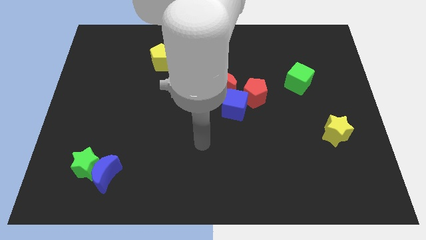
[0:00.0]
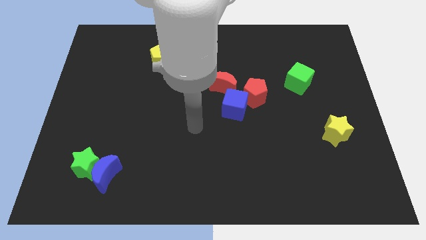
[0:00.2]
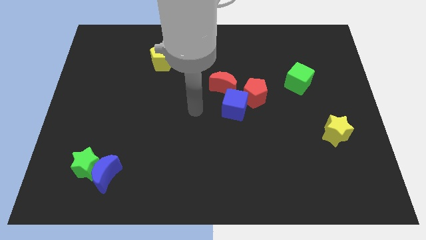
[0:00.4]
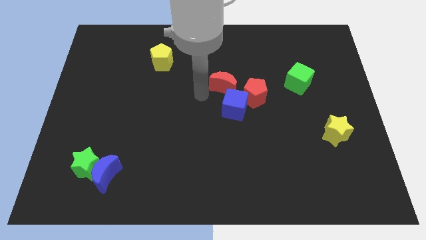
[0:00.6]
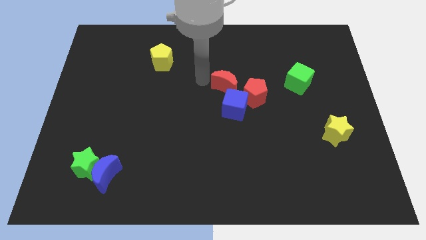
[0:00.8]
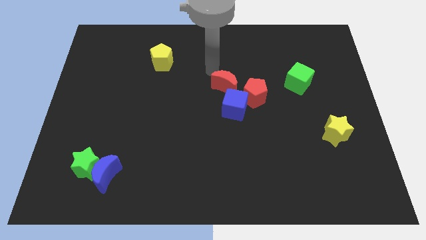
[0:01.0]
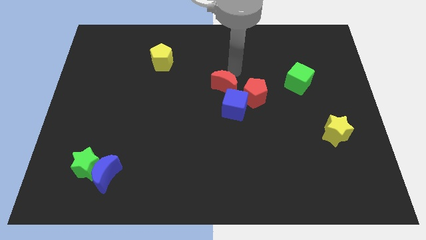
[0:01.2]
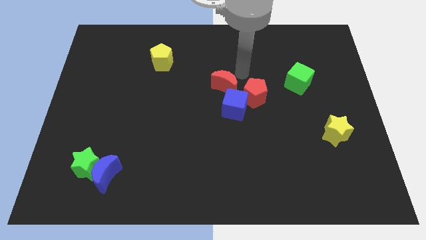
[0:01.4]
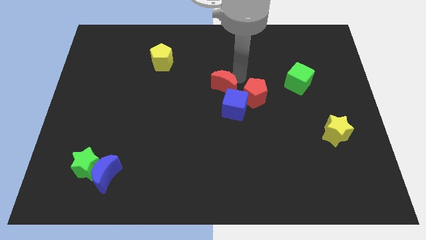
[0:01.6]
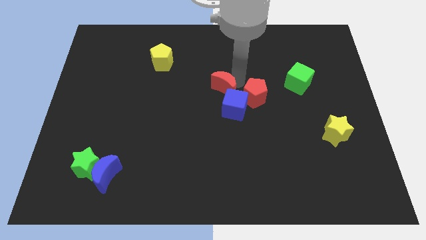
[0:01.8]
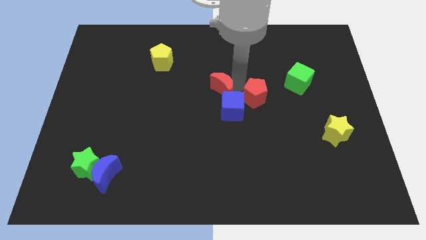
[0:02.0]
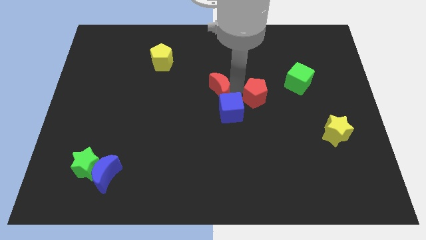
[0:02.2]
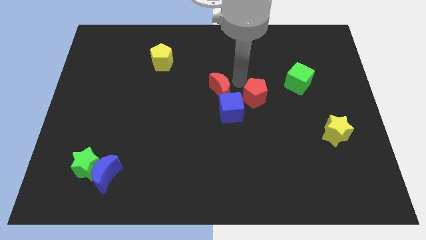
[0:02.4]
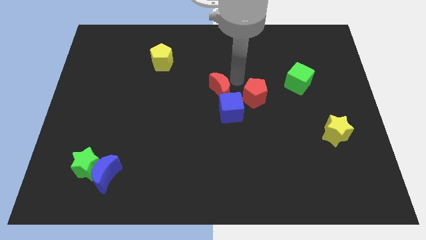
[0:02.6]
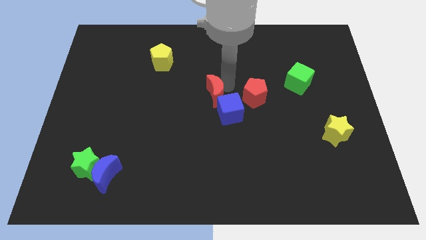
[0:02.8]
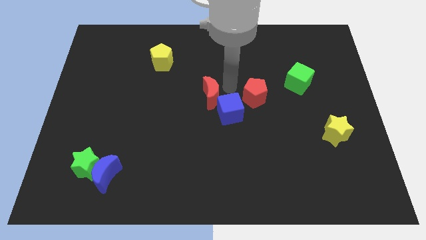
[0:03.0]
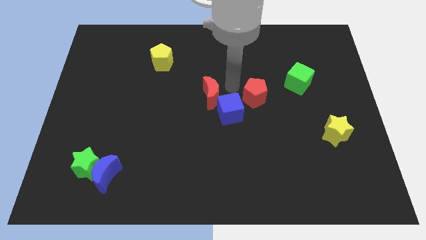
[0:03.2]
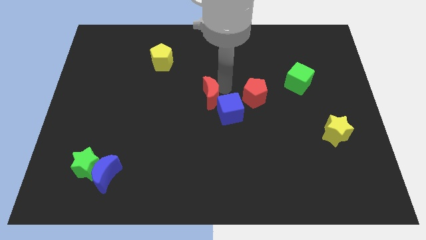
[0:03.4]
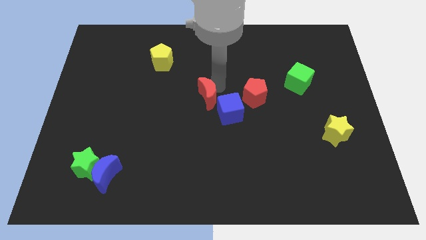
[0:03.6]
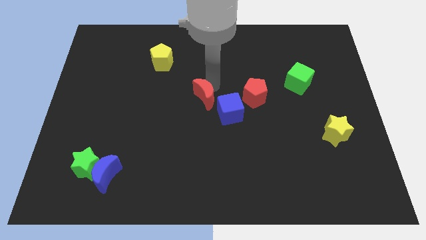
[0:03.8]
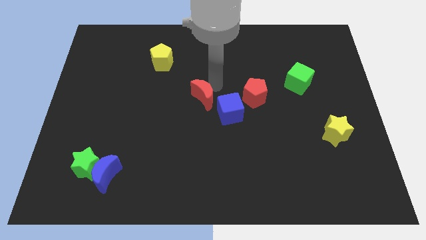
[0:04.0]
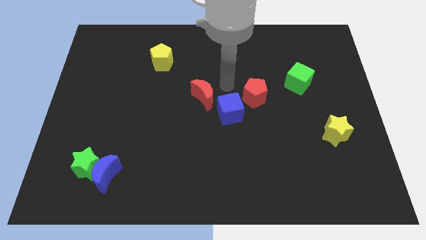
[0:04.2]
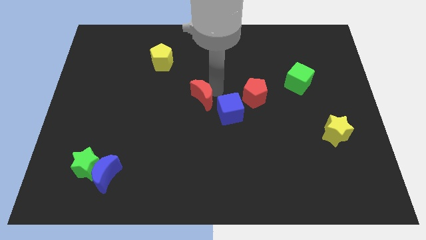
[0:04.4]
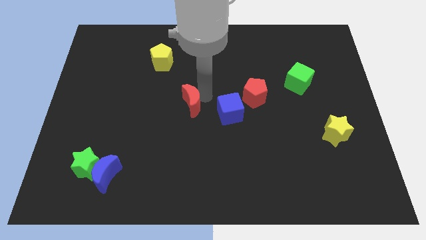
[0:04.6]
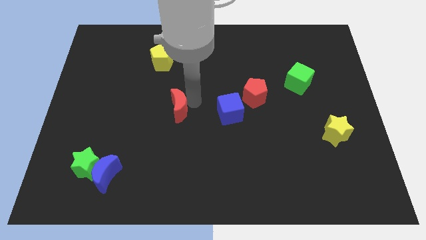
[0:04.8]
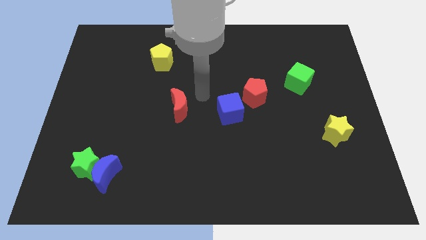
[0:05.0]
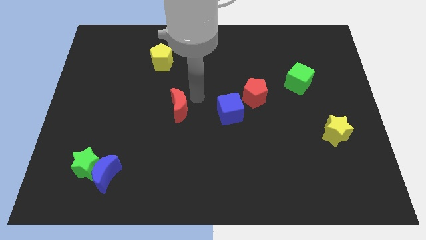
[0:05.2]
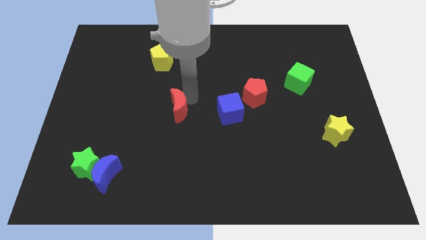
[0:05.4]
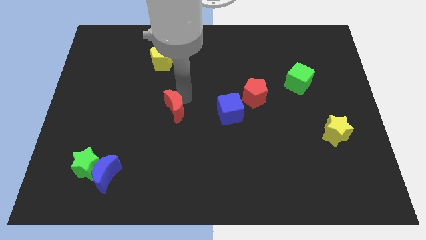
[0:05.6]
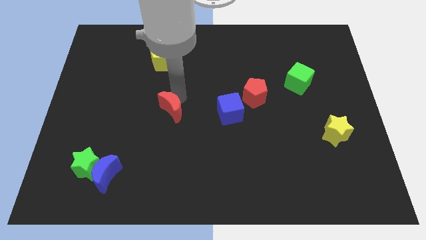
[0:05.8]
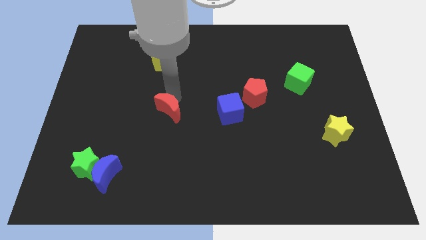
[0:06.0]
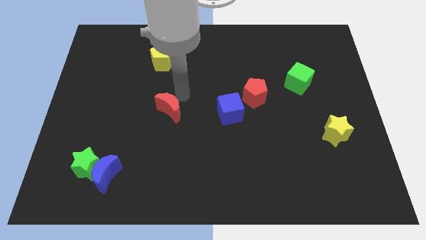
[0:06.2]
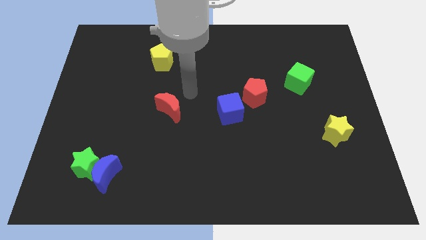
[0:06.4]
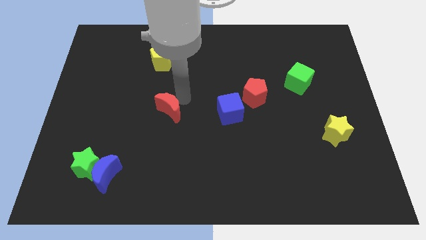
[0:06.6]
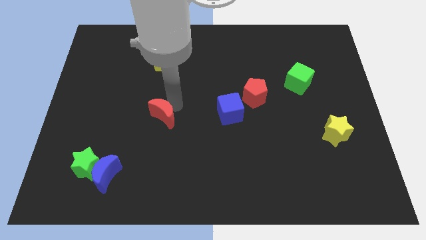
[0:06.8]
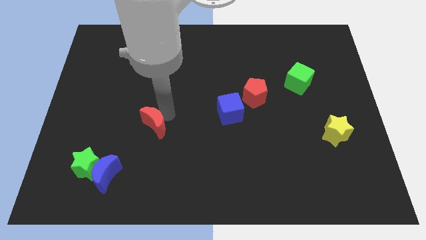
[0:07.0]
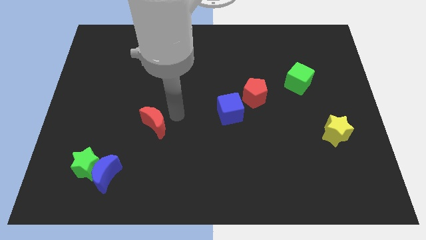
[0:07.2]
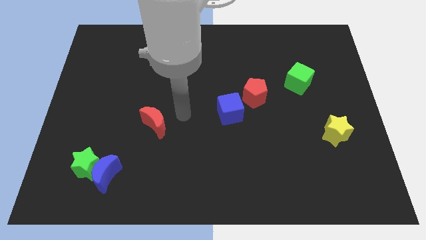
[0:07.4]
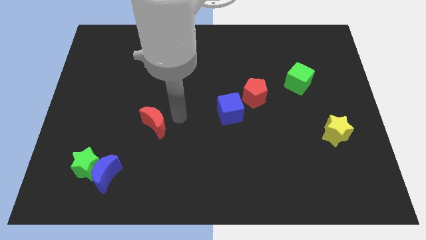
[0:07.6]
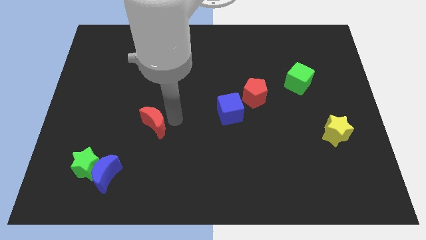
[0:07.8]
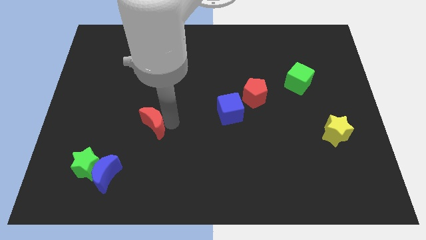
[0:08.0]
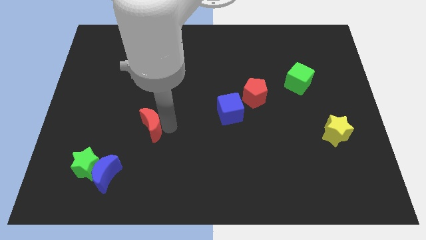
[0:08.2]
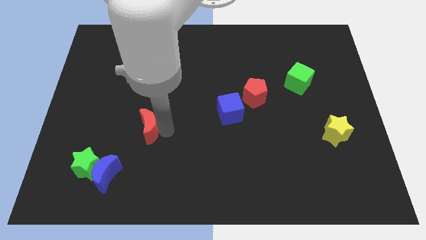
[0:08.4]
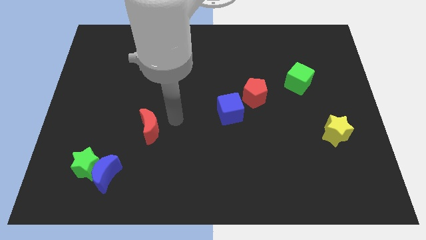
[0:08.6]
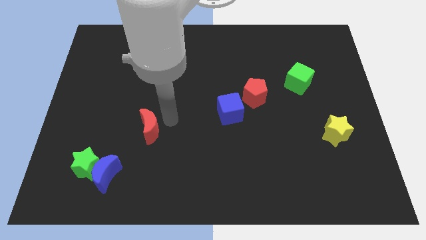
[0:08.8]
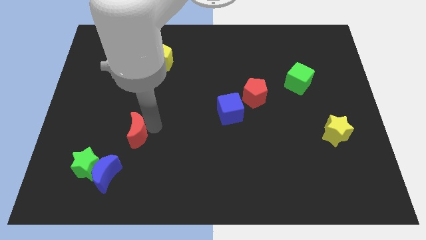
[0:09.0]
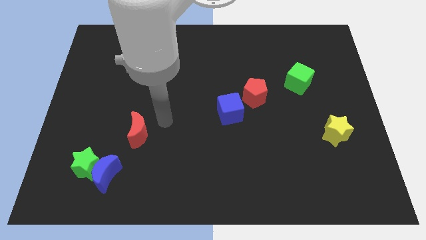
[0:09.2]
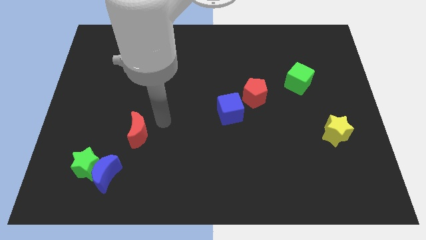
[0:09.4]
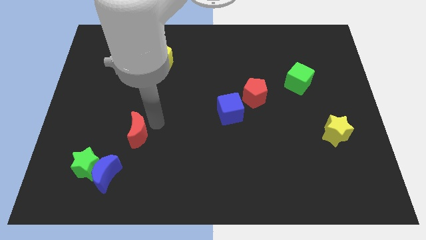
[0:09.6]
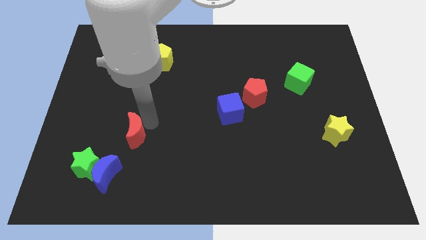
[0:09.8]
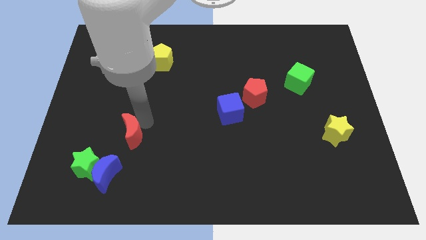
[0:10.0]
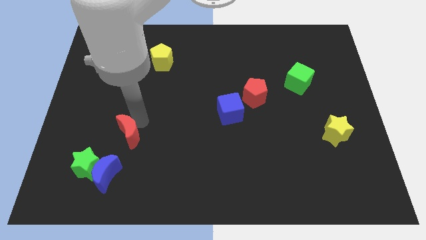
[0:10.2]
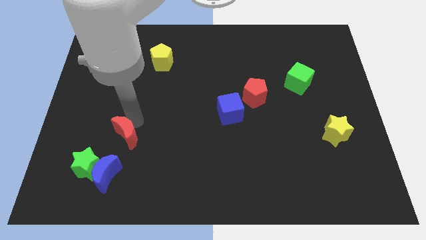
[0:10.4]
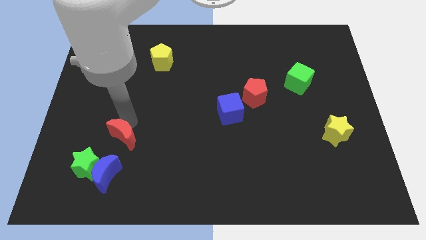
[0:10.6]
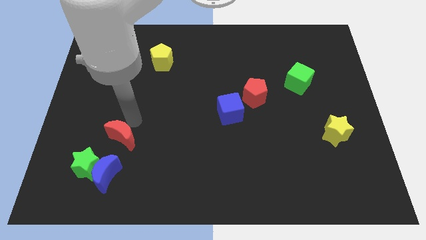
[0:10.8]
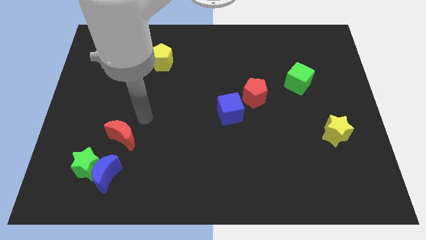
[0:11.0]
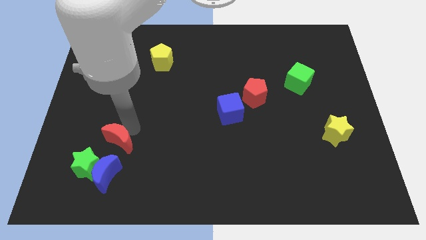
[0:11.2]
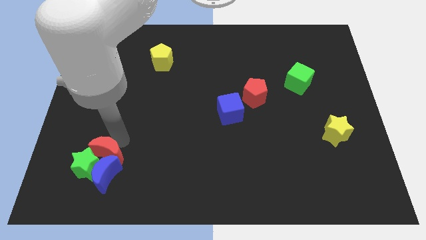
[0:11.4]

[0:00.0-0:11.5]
push the red moon towards the green star

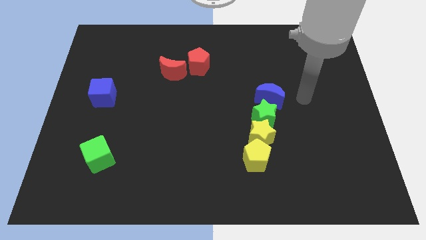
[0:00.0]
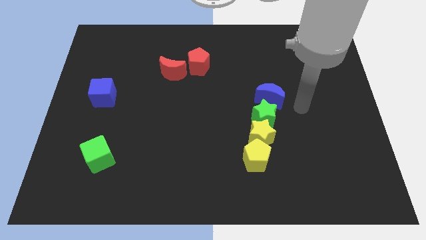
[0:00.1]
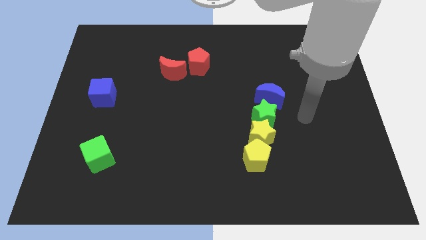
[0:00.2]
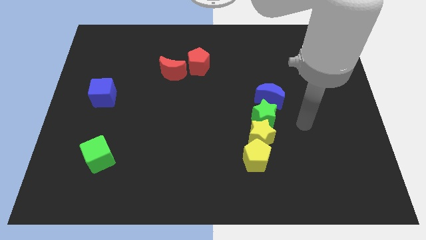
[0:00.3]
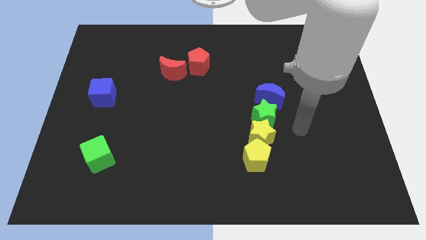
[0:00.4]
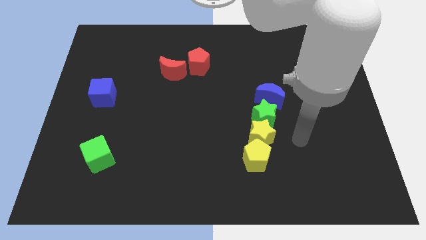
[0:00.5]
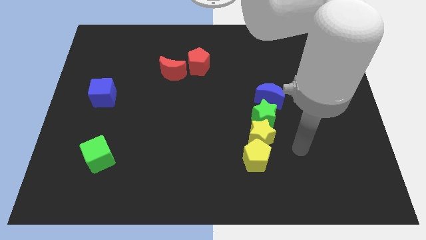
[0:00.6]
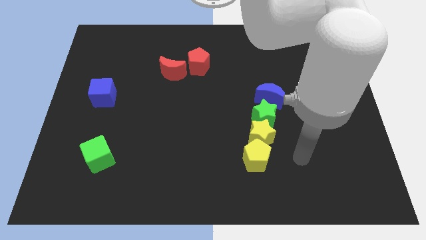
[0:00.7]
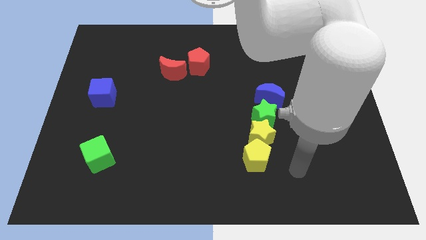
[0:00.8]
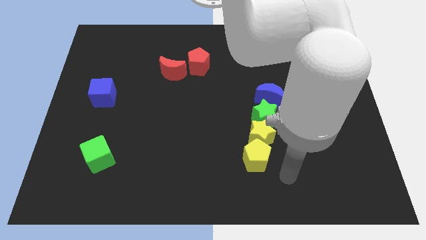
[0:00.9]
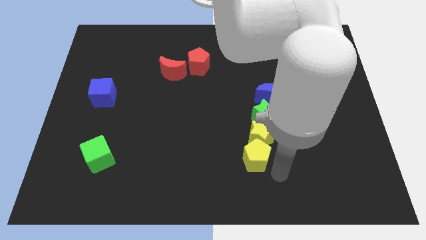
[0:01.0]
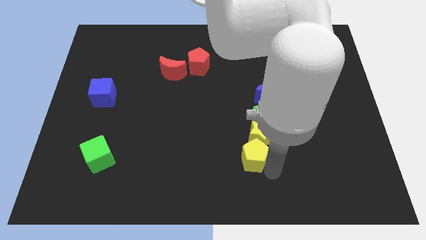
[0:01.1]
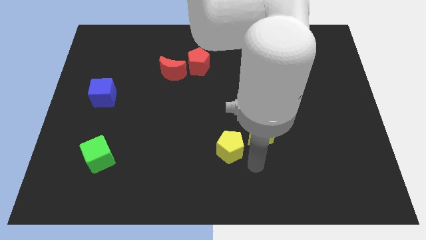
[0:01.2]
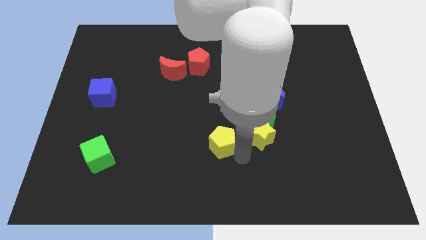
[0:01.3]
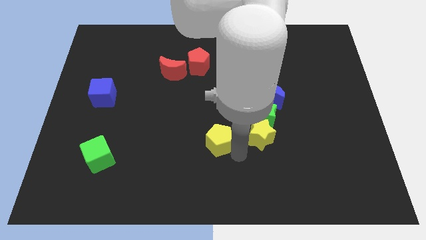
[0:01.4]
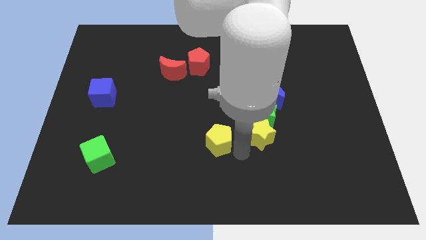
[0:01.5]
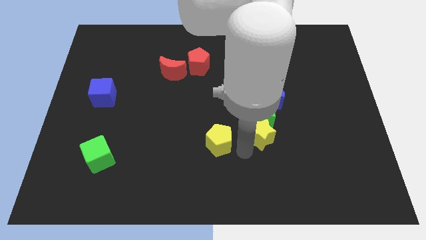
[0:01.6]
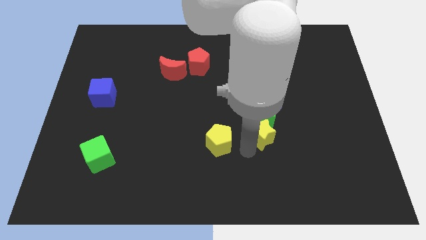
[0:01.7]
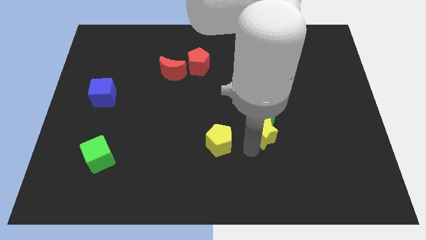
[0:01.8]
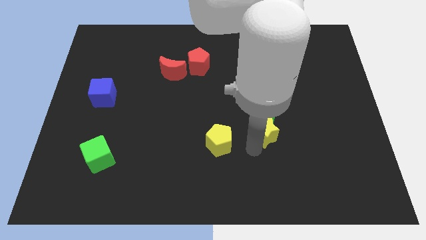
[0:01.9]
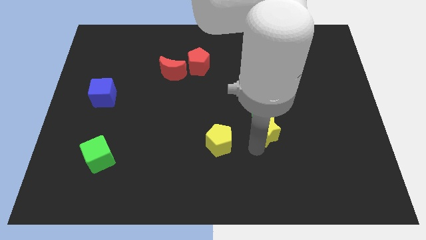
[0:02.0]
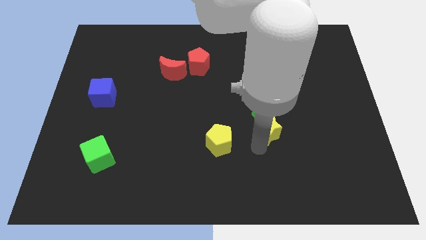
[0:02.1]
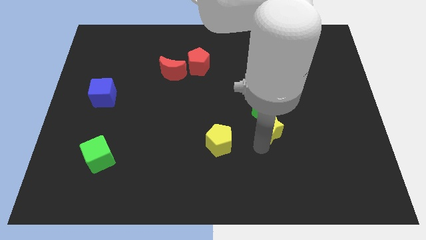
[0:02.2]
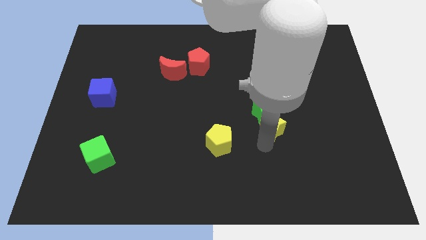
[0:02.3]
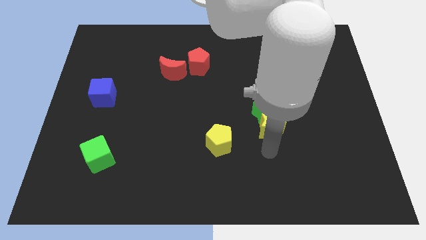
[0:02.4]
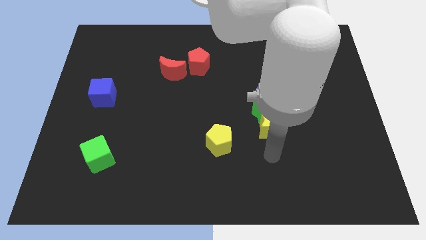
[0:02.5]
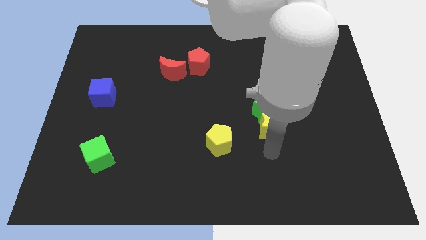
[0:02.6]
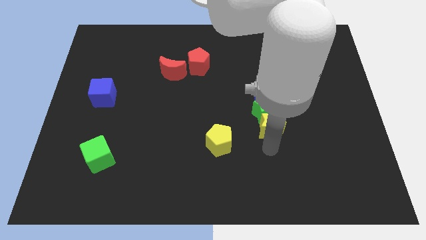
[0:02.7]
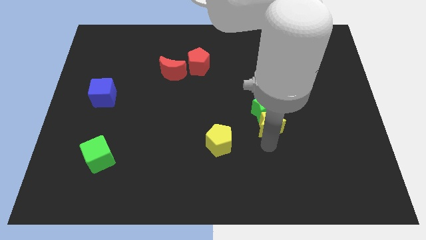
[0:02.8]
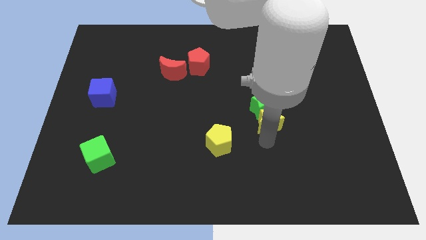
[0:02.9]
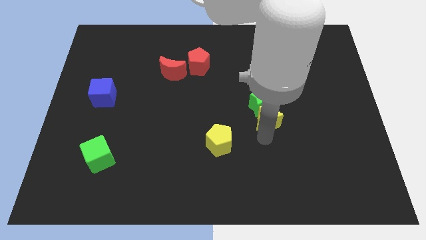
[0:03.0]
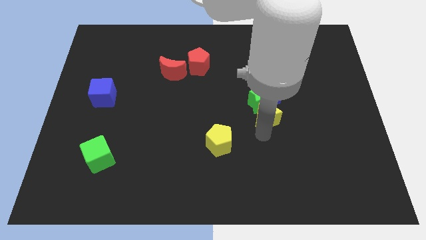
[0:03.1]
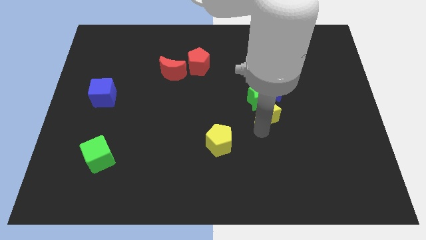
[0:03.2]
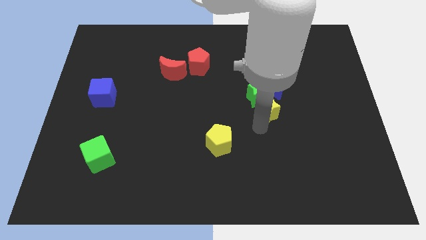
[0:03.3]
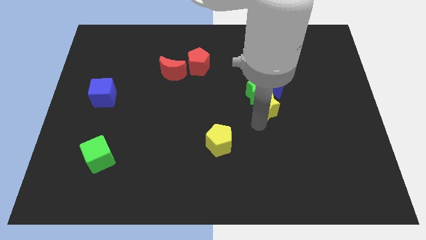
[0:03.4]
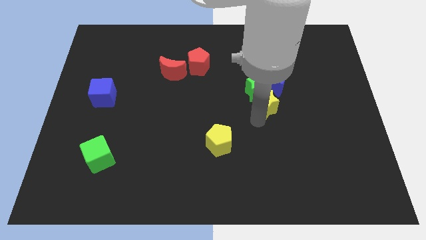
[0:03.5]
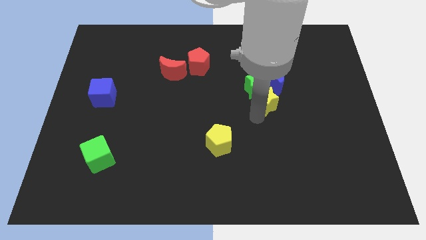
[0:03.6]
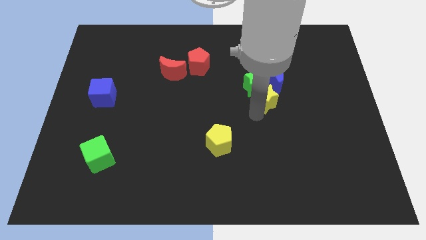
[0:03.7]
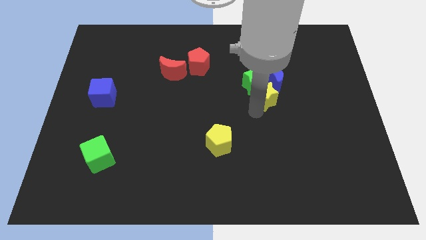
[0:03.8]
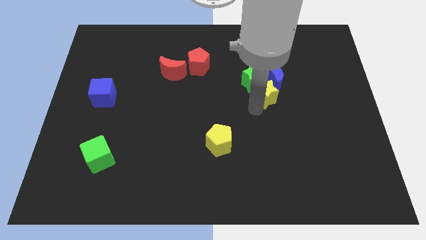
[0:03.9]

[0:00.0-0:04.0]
slide the yellow star next to the blue moon
